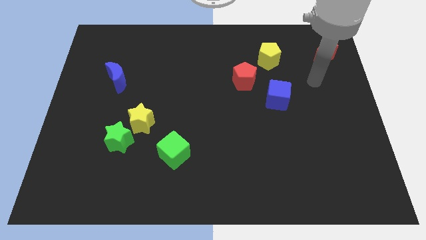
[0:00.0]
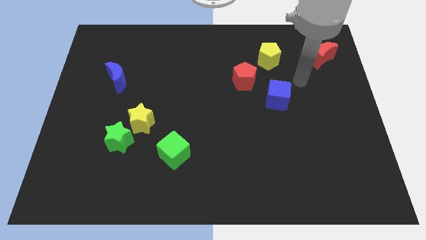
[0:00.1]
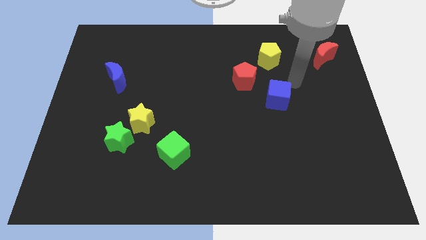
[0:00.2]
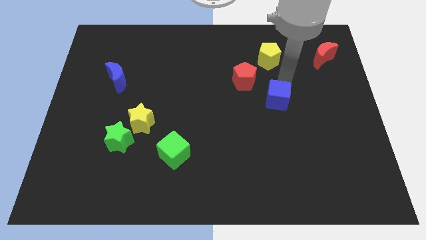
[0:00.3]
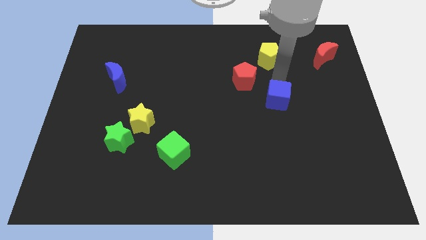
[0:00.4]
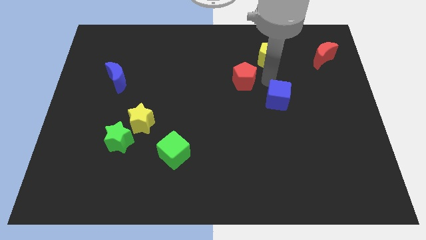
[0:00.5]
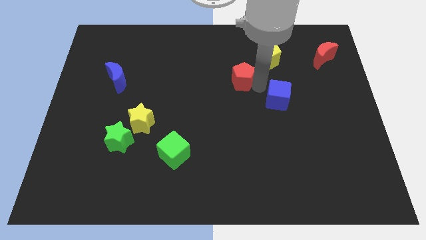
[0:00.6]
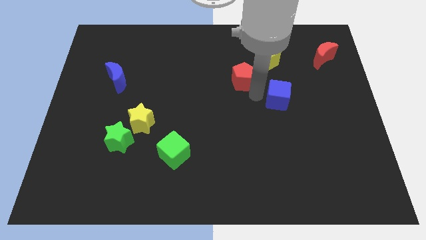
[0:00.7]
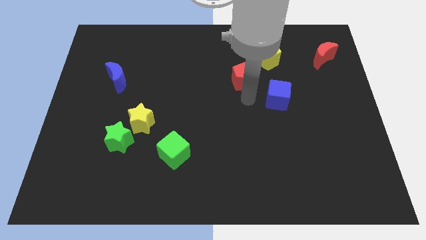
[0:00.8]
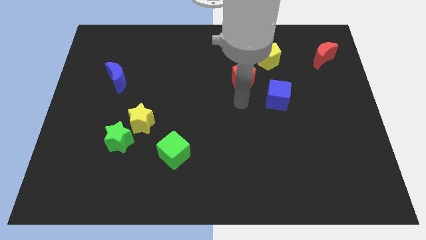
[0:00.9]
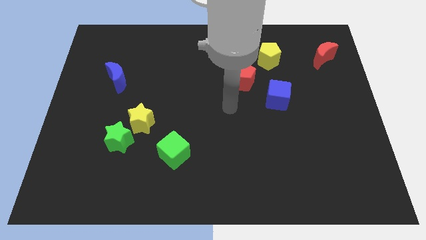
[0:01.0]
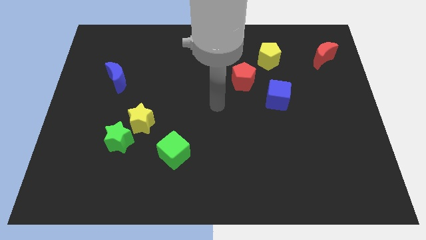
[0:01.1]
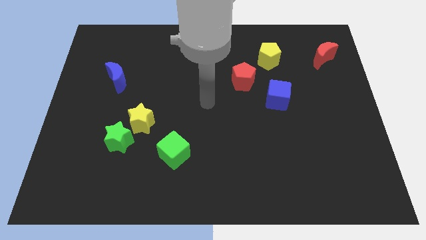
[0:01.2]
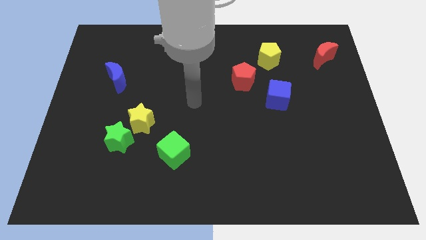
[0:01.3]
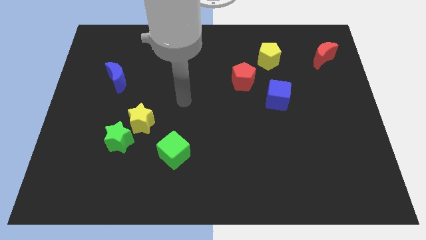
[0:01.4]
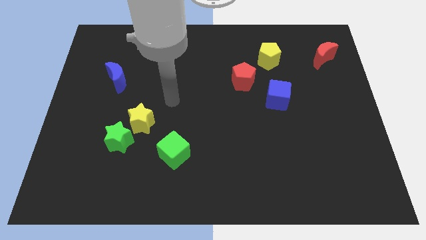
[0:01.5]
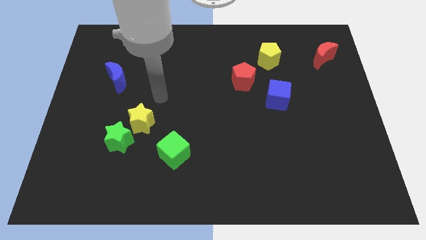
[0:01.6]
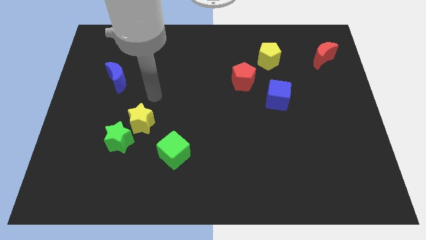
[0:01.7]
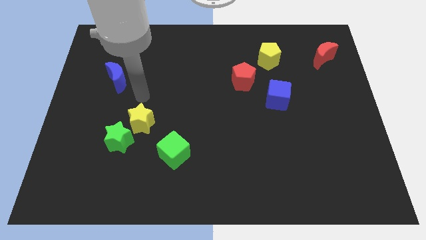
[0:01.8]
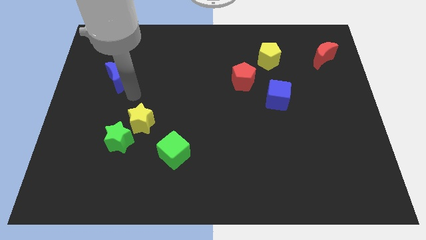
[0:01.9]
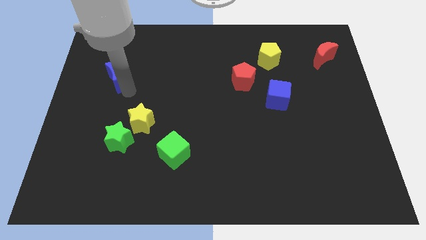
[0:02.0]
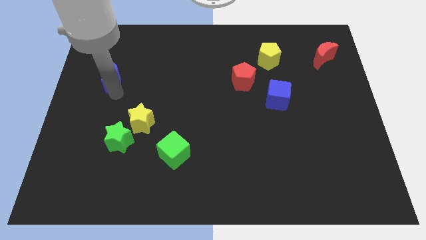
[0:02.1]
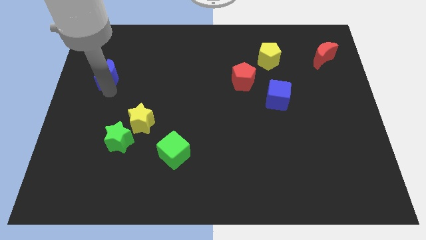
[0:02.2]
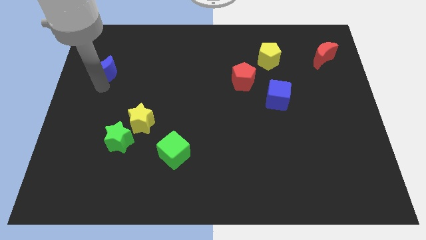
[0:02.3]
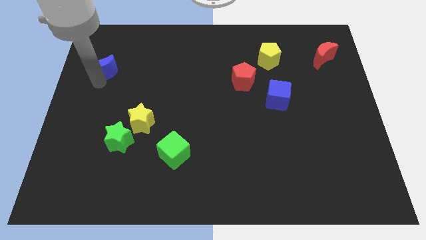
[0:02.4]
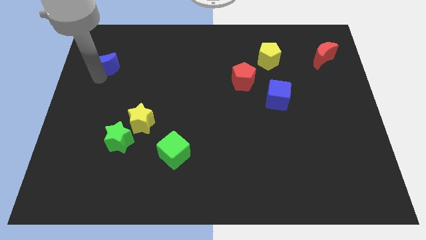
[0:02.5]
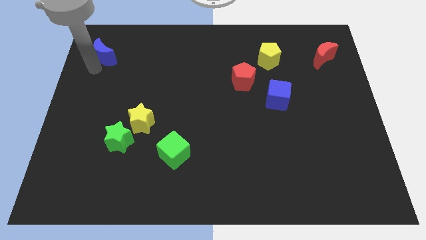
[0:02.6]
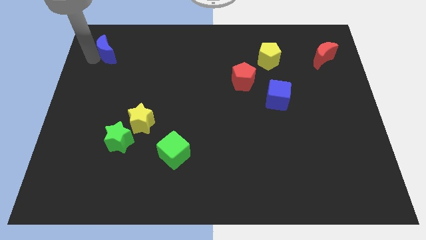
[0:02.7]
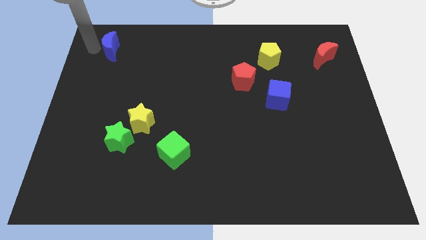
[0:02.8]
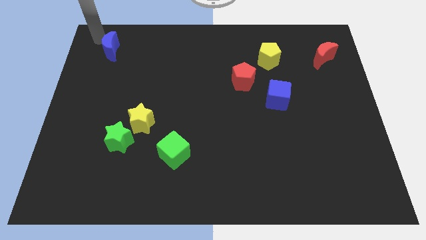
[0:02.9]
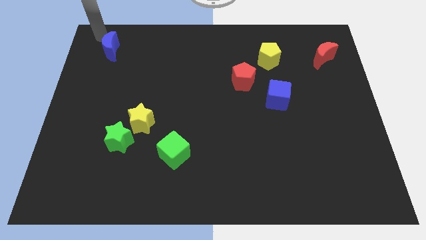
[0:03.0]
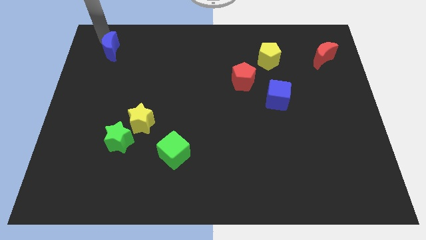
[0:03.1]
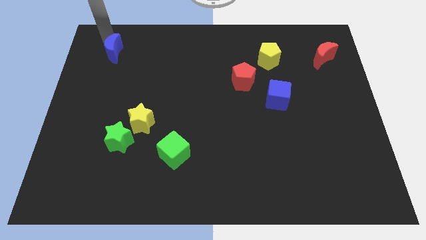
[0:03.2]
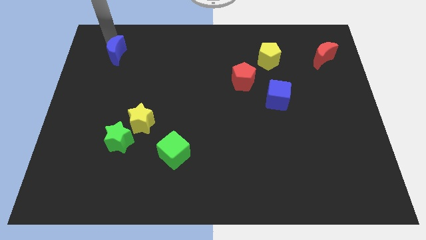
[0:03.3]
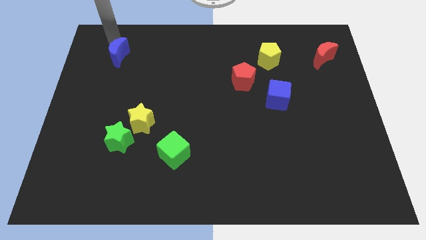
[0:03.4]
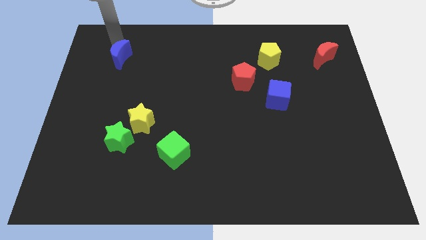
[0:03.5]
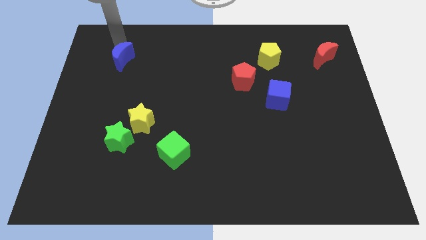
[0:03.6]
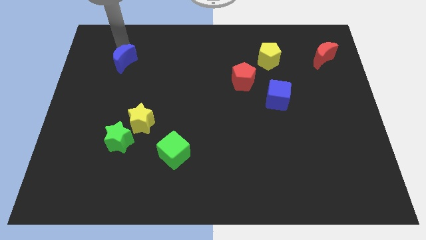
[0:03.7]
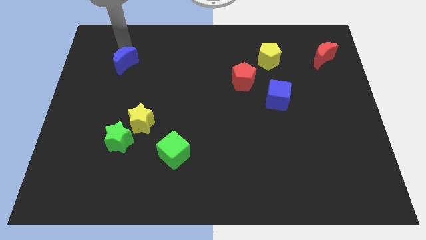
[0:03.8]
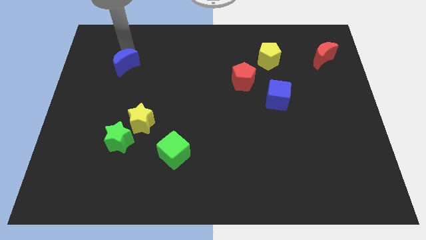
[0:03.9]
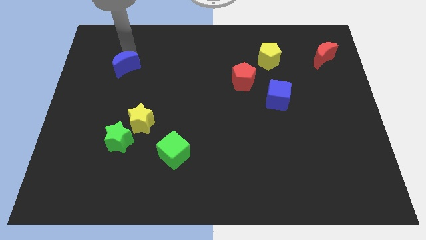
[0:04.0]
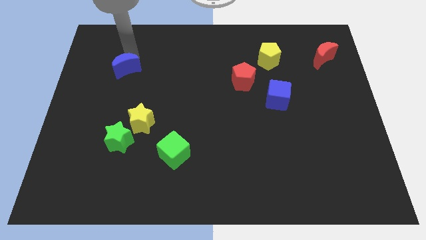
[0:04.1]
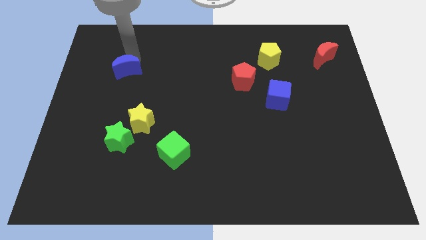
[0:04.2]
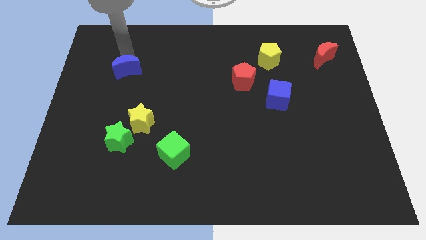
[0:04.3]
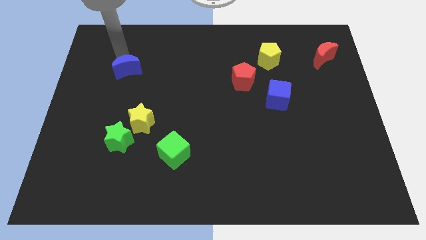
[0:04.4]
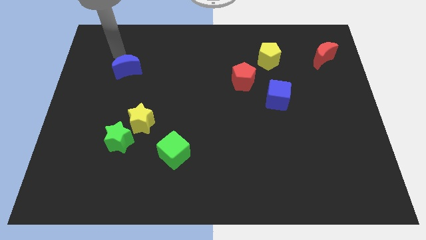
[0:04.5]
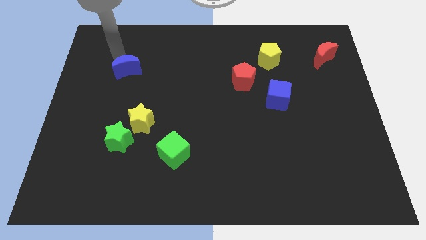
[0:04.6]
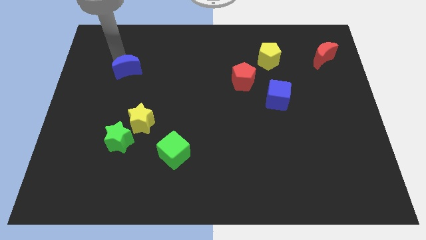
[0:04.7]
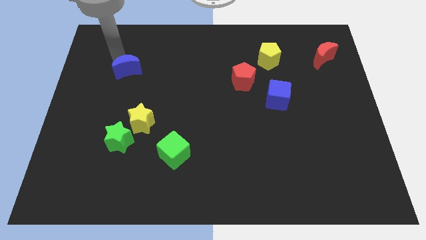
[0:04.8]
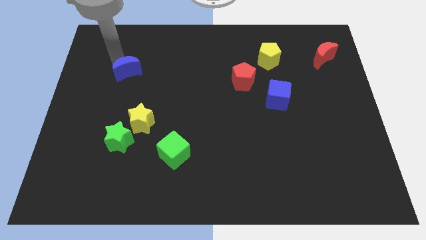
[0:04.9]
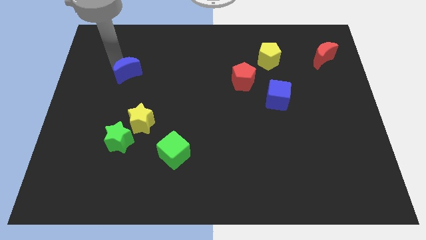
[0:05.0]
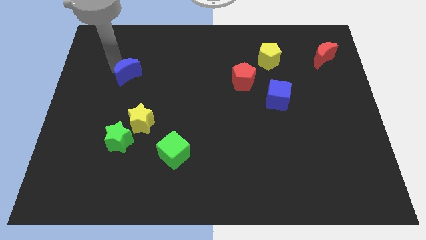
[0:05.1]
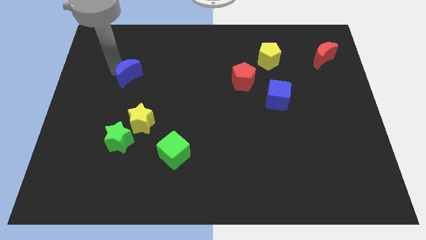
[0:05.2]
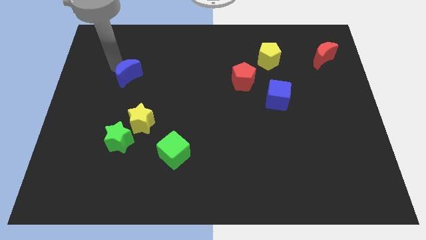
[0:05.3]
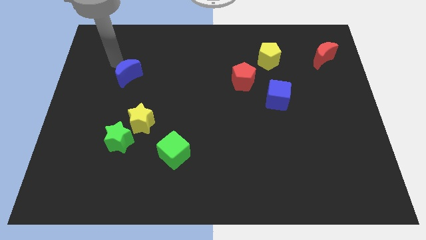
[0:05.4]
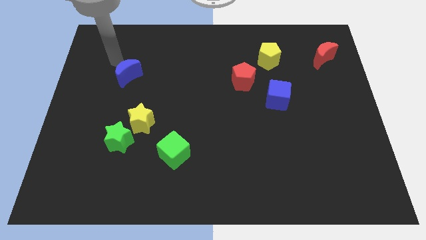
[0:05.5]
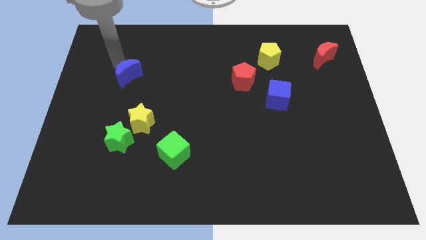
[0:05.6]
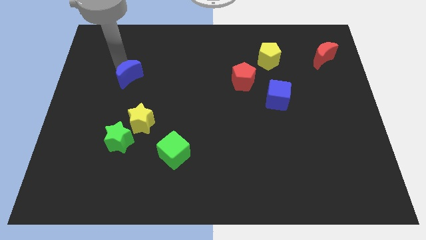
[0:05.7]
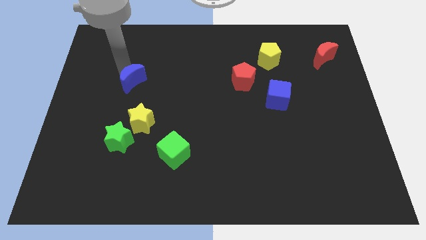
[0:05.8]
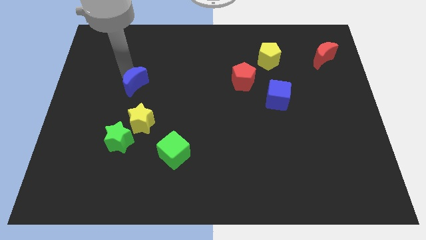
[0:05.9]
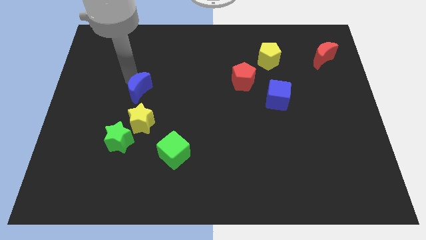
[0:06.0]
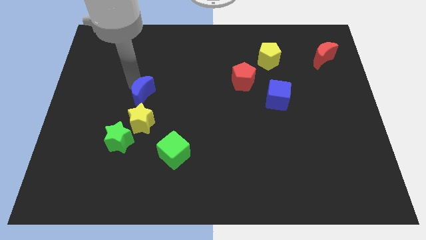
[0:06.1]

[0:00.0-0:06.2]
move the blue moon downwards and then to the right a little

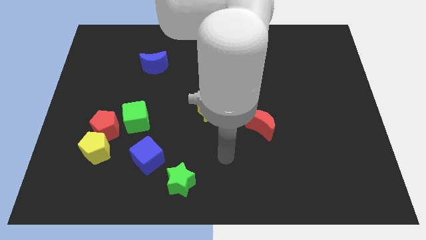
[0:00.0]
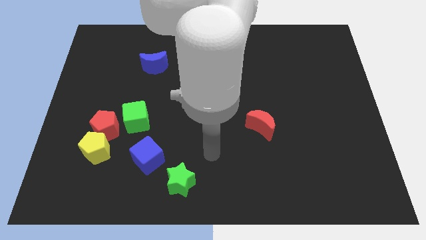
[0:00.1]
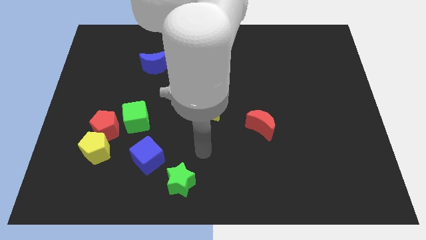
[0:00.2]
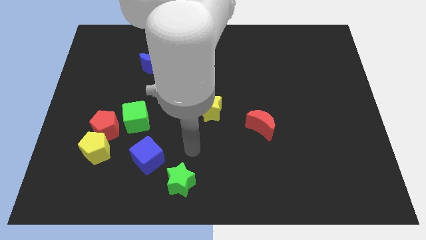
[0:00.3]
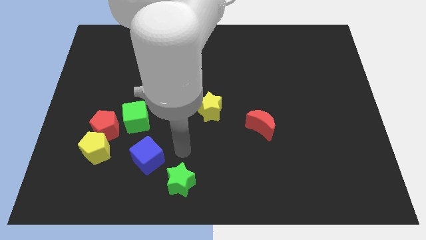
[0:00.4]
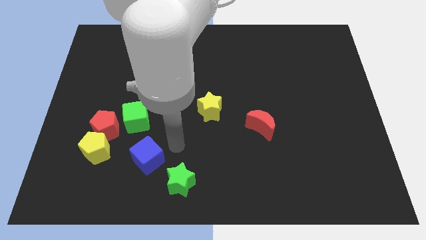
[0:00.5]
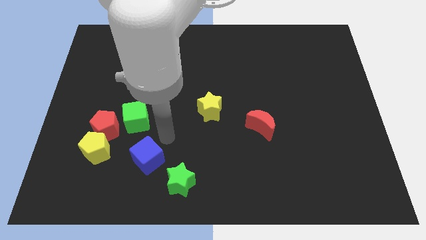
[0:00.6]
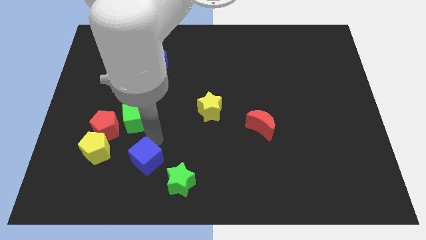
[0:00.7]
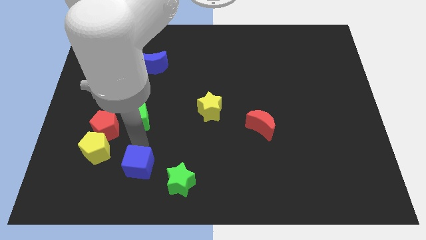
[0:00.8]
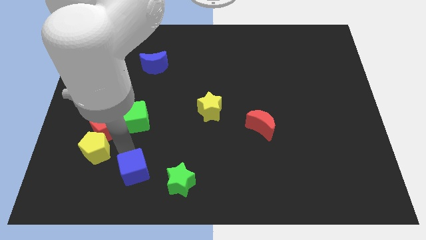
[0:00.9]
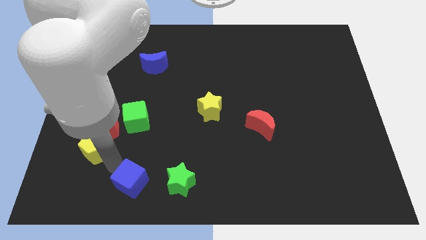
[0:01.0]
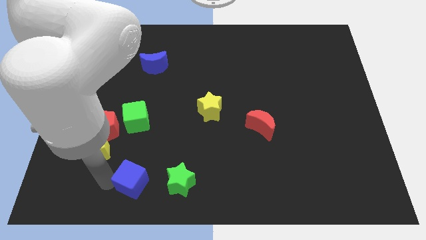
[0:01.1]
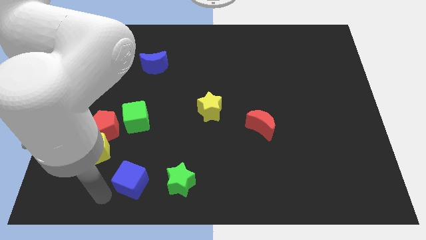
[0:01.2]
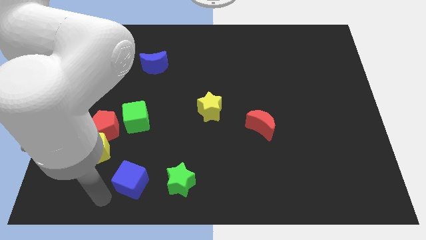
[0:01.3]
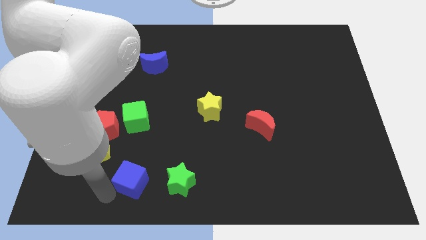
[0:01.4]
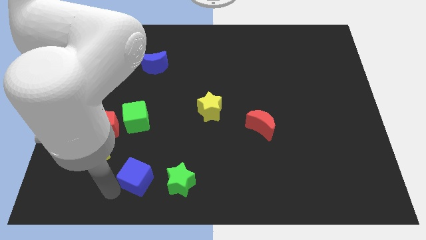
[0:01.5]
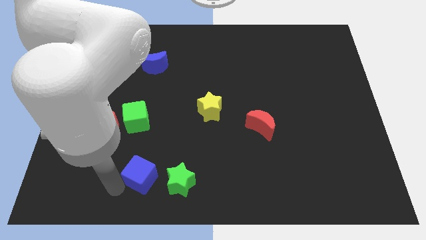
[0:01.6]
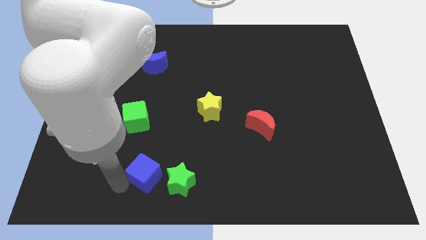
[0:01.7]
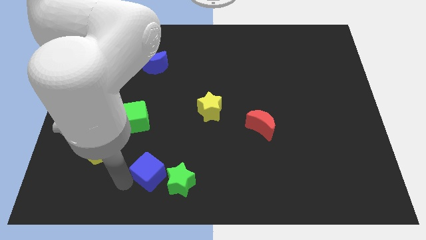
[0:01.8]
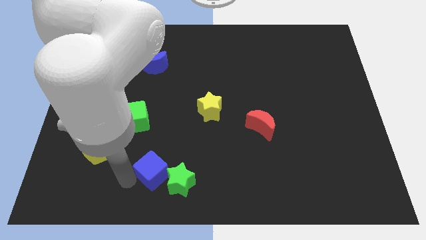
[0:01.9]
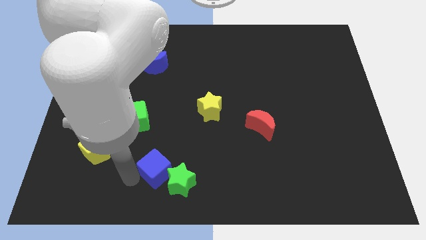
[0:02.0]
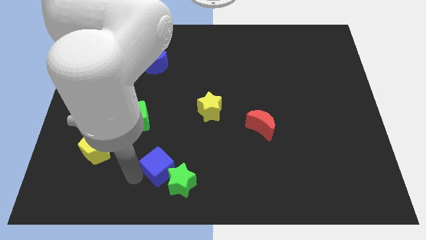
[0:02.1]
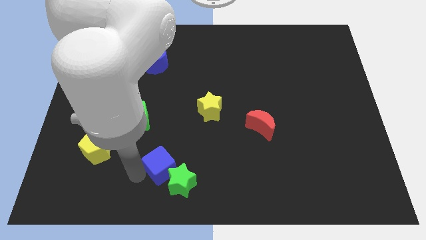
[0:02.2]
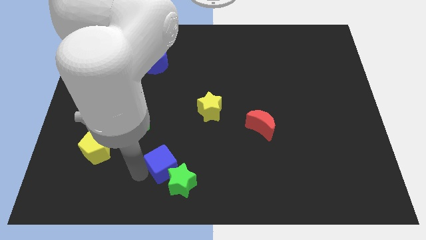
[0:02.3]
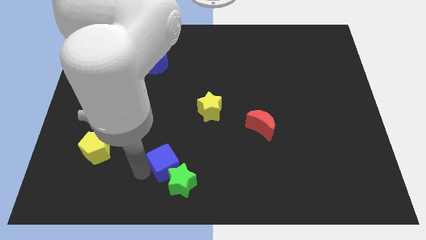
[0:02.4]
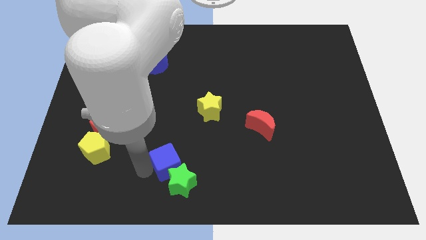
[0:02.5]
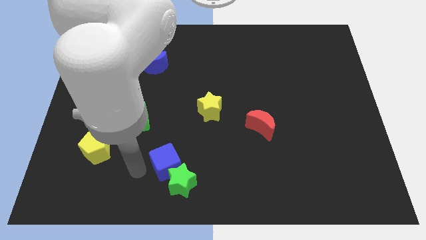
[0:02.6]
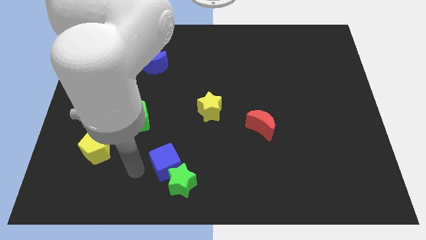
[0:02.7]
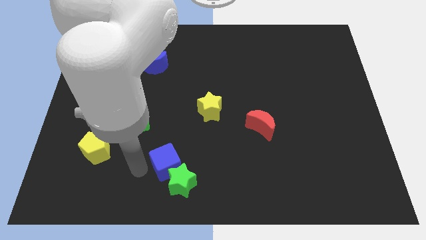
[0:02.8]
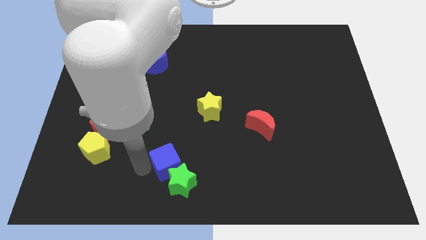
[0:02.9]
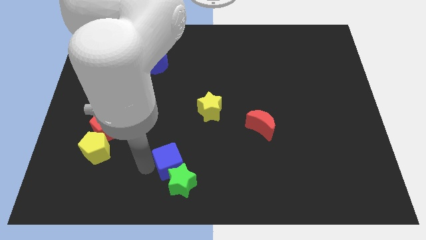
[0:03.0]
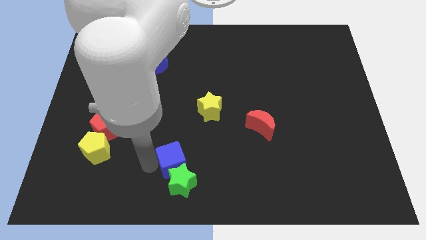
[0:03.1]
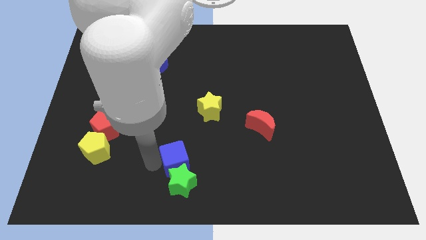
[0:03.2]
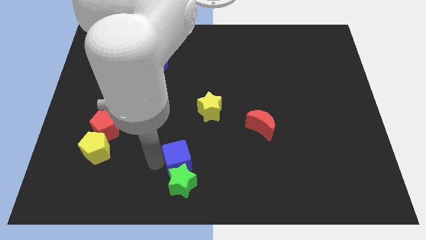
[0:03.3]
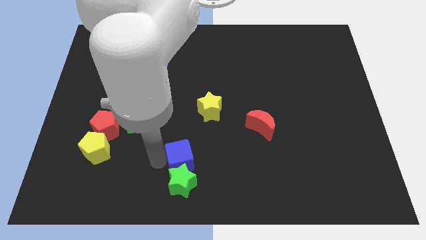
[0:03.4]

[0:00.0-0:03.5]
slightly move the blue cube to the right
